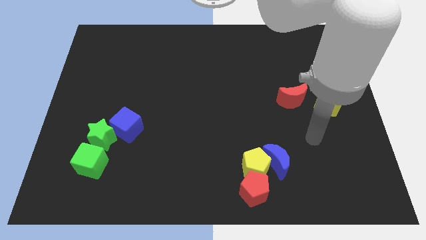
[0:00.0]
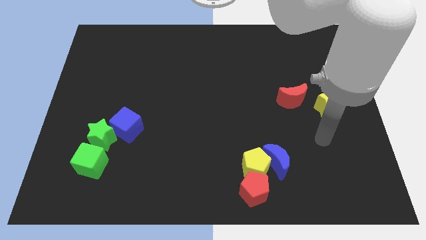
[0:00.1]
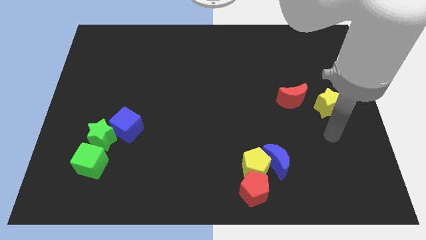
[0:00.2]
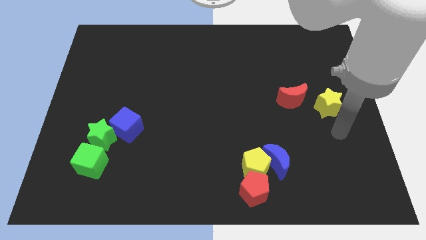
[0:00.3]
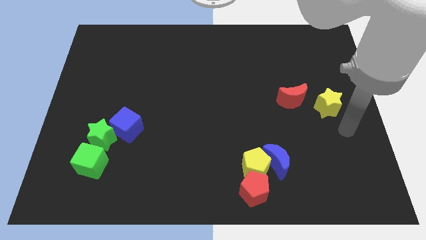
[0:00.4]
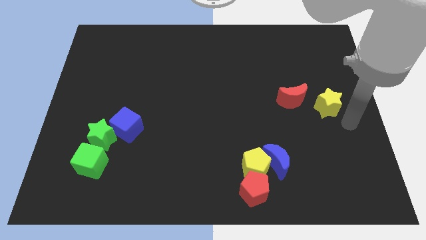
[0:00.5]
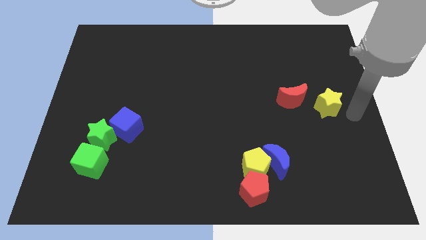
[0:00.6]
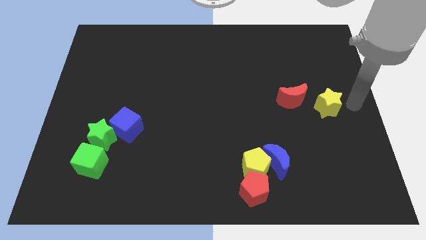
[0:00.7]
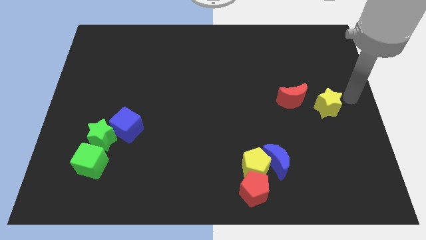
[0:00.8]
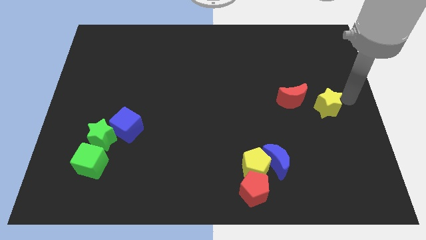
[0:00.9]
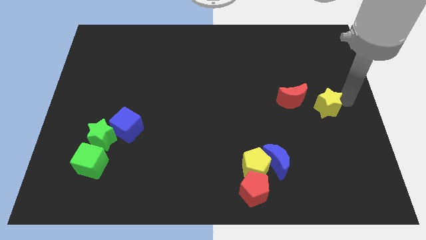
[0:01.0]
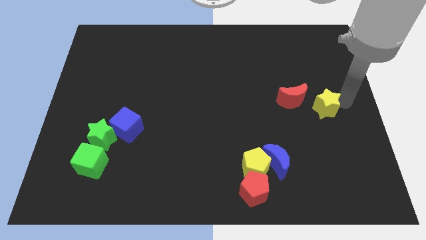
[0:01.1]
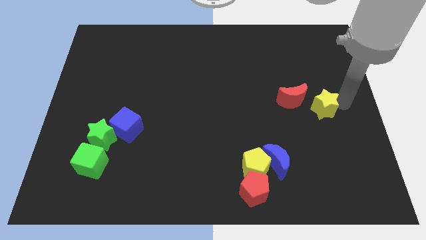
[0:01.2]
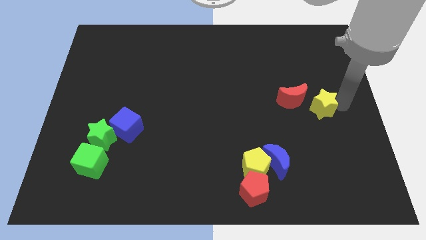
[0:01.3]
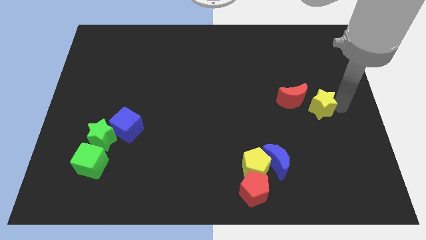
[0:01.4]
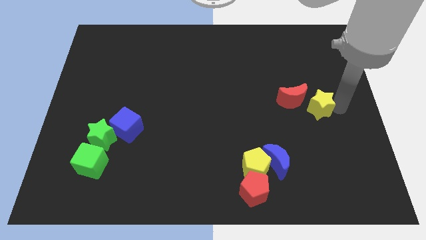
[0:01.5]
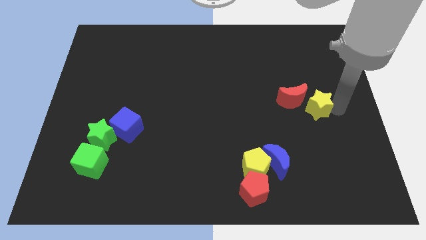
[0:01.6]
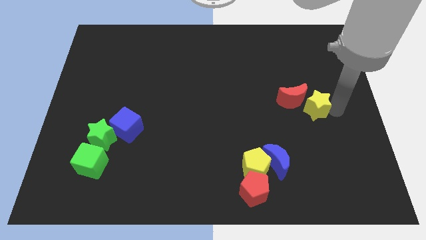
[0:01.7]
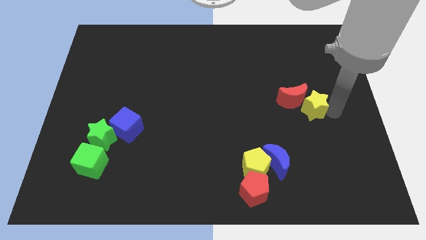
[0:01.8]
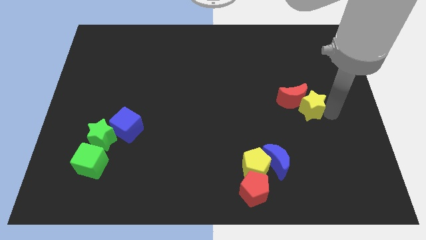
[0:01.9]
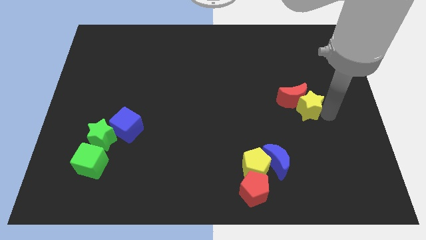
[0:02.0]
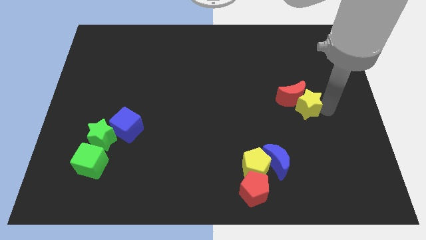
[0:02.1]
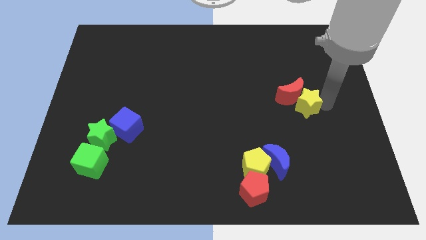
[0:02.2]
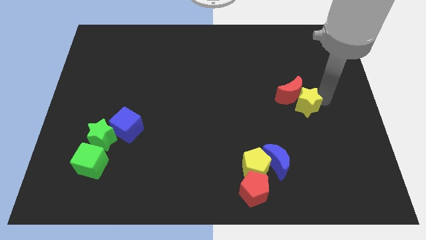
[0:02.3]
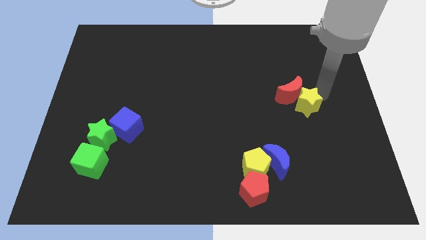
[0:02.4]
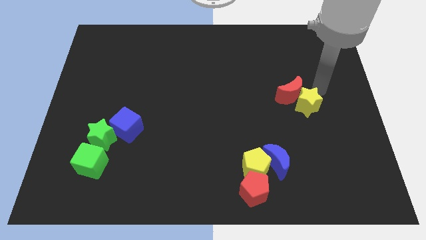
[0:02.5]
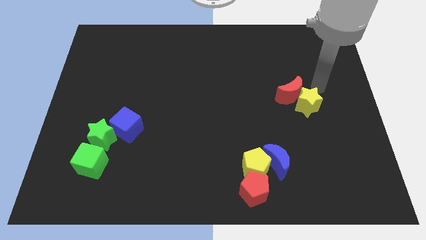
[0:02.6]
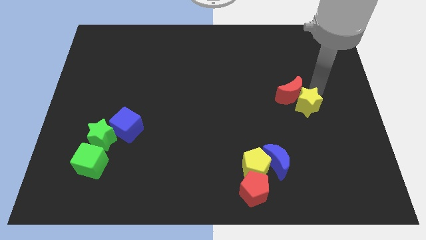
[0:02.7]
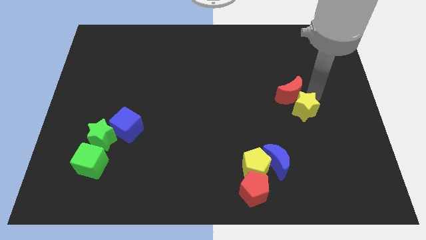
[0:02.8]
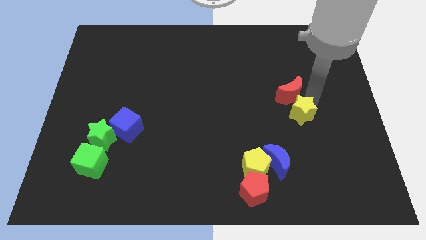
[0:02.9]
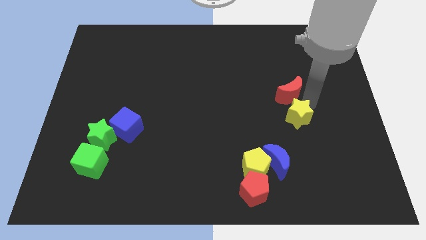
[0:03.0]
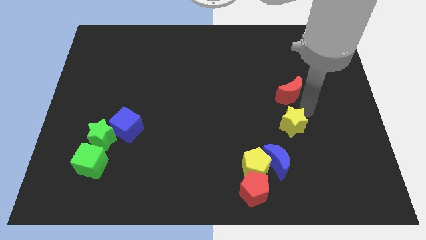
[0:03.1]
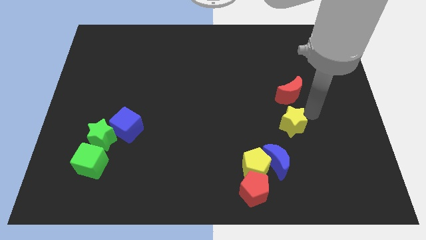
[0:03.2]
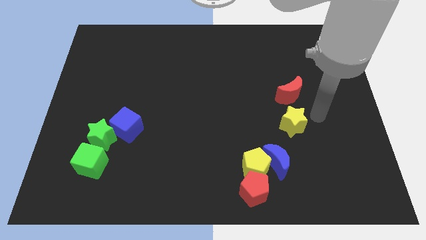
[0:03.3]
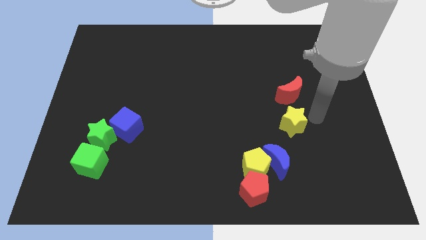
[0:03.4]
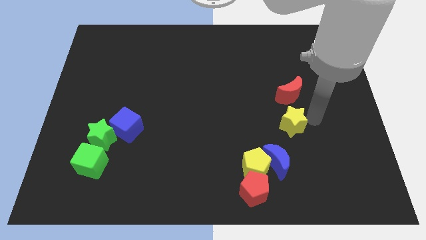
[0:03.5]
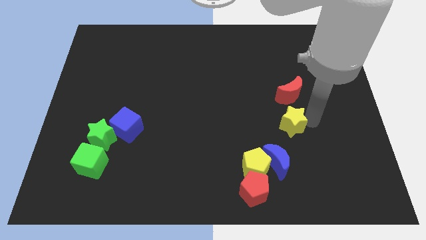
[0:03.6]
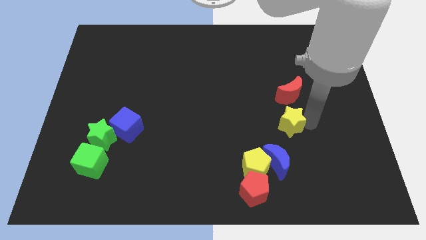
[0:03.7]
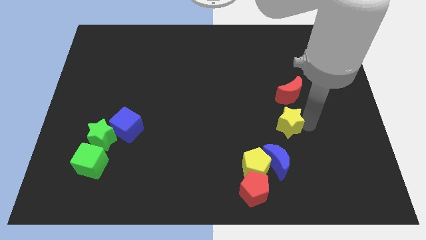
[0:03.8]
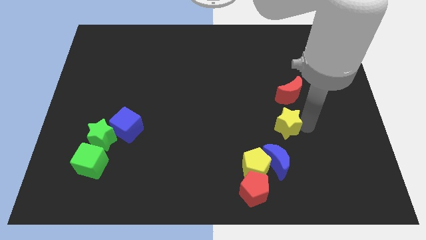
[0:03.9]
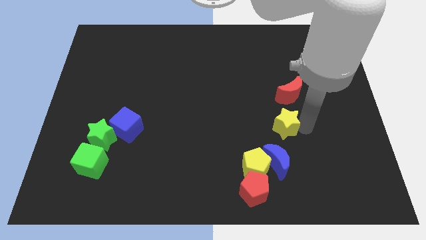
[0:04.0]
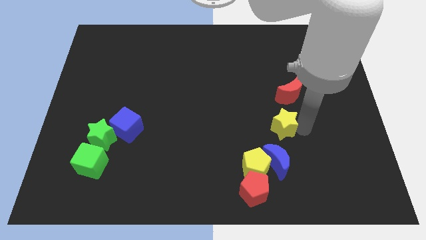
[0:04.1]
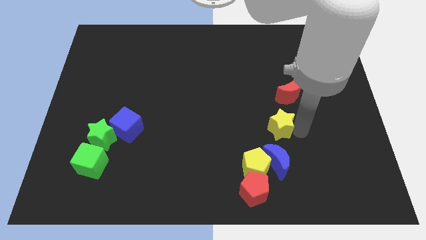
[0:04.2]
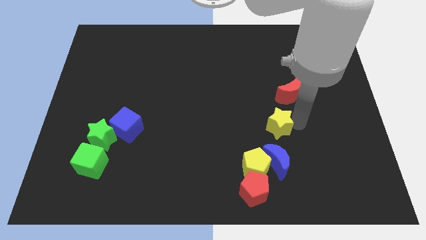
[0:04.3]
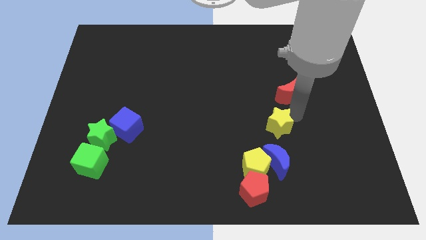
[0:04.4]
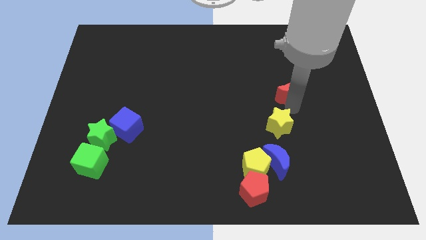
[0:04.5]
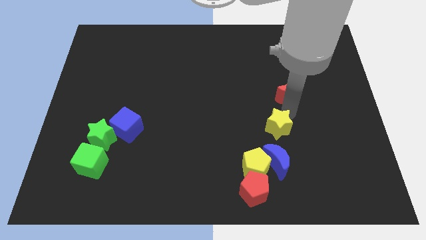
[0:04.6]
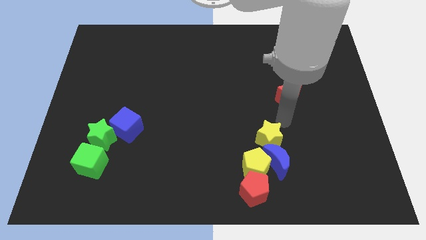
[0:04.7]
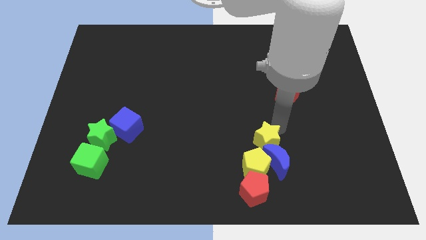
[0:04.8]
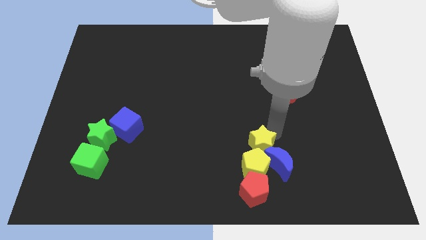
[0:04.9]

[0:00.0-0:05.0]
push the yellow star towards the yellow pentagon

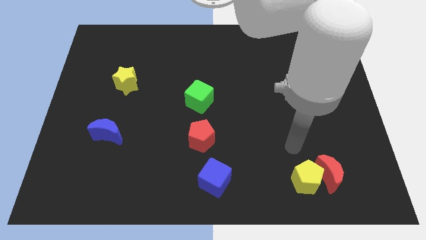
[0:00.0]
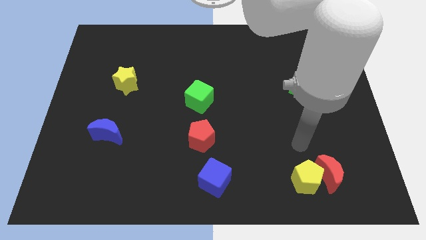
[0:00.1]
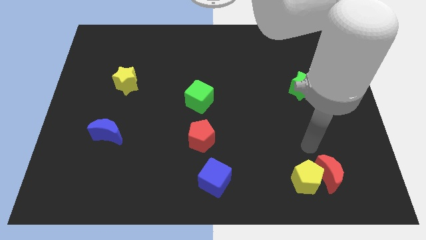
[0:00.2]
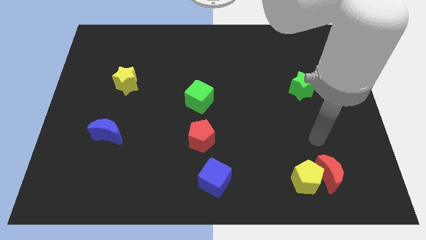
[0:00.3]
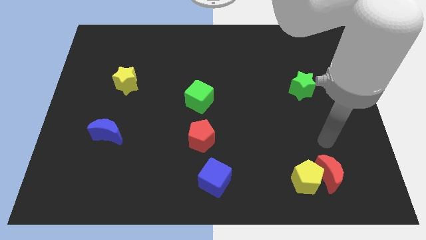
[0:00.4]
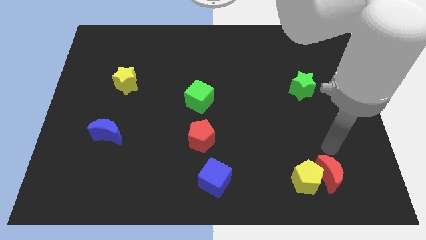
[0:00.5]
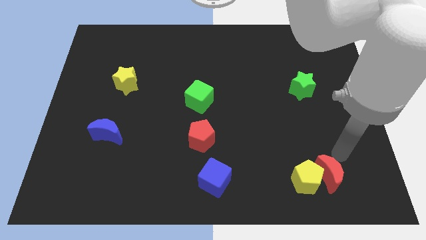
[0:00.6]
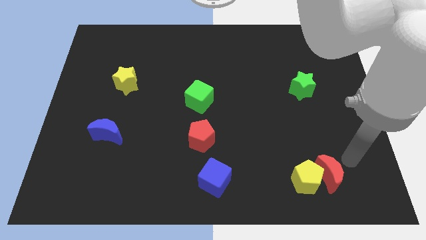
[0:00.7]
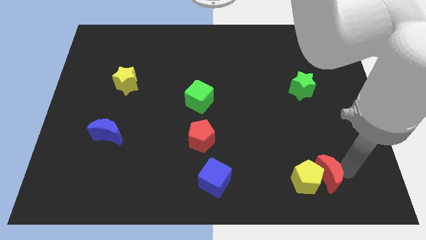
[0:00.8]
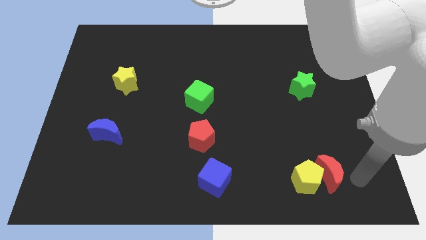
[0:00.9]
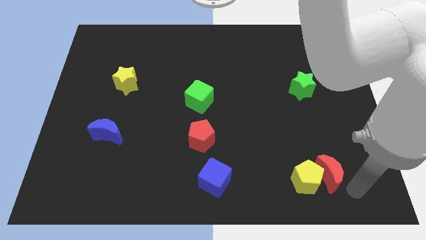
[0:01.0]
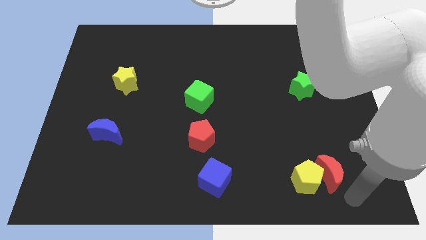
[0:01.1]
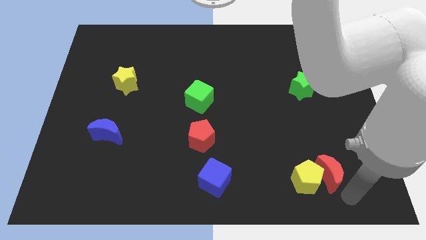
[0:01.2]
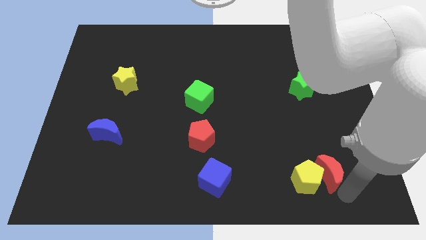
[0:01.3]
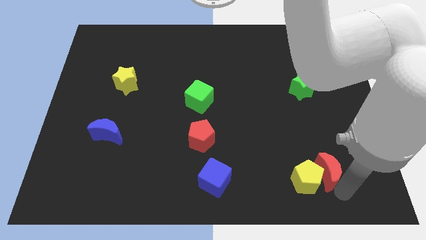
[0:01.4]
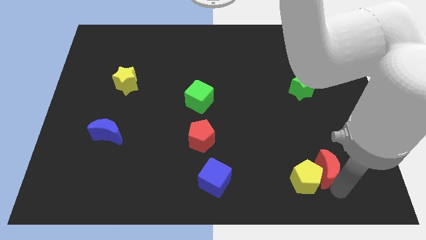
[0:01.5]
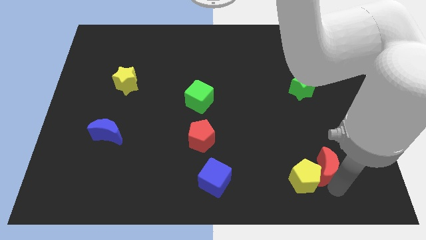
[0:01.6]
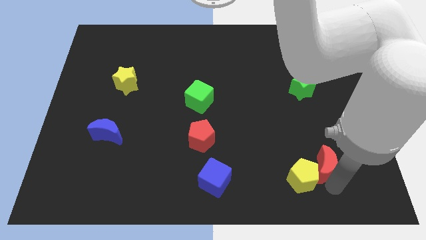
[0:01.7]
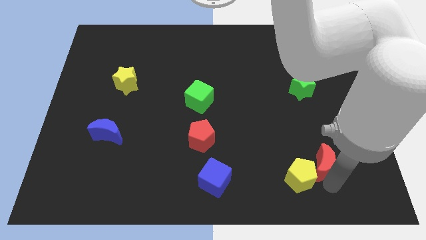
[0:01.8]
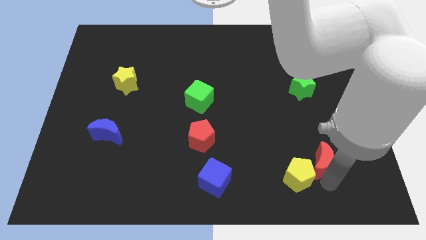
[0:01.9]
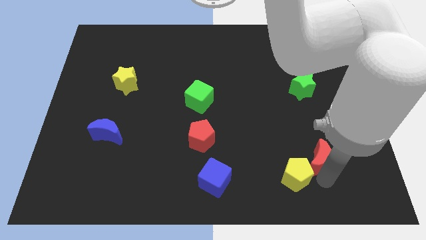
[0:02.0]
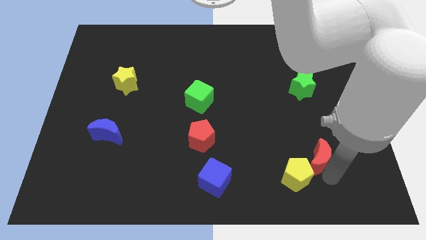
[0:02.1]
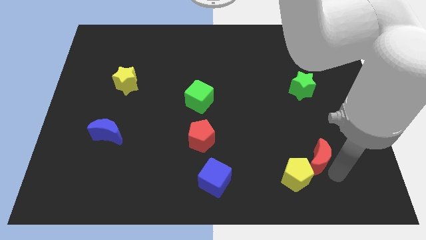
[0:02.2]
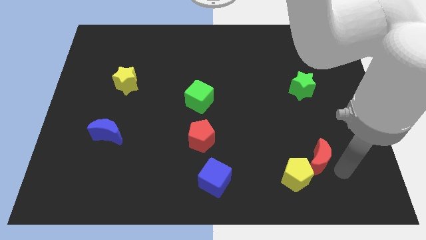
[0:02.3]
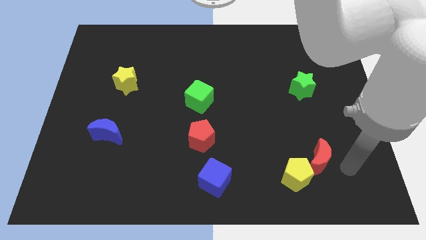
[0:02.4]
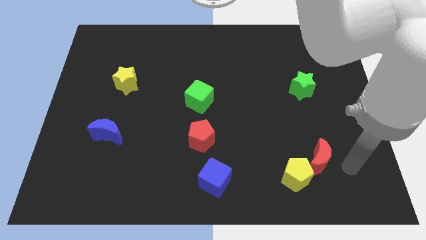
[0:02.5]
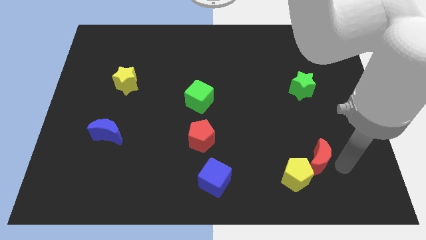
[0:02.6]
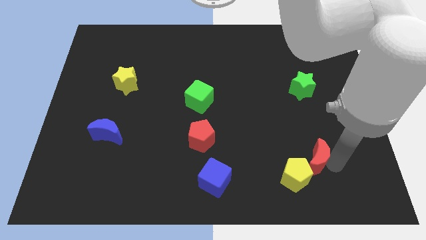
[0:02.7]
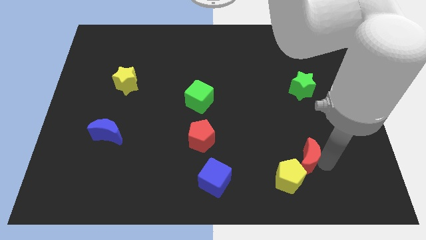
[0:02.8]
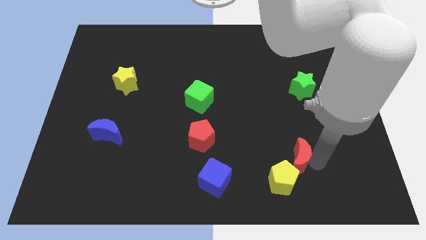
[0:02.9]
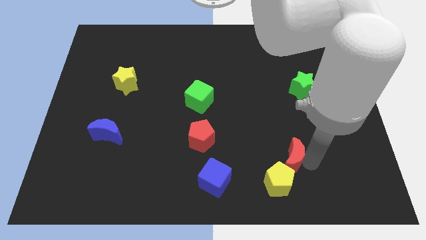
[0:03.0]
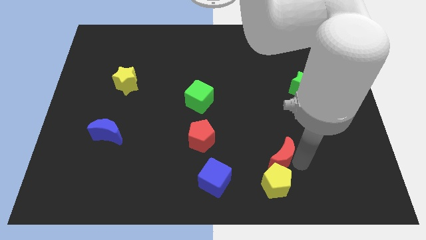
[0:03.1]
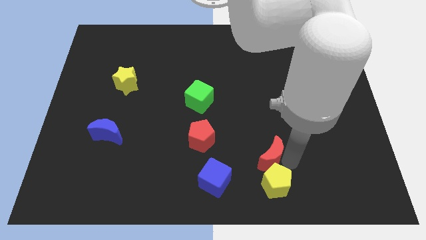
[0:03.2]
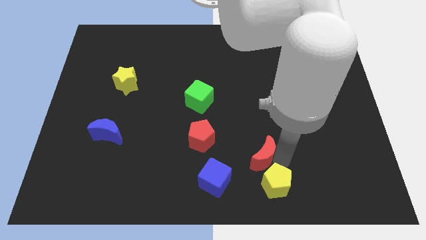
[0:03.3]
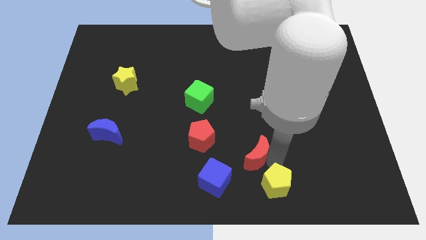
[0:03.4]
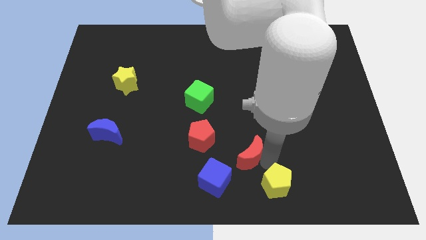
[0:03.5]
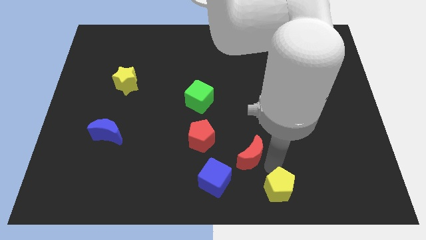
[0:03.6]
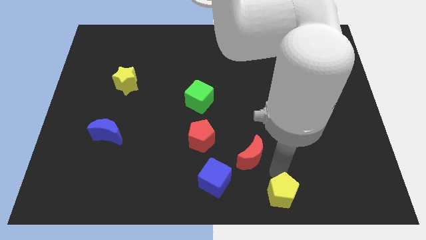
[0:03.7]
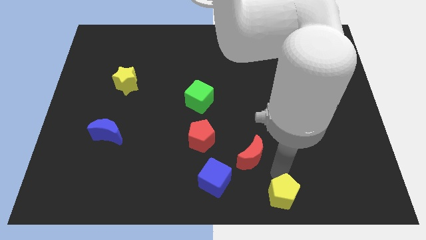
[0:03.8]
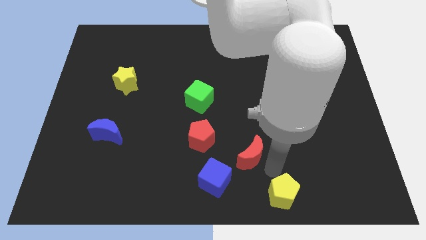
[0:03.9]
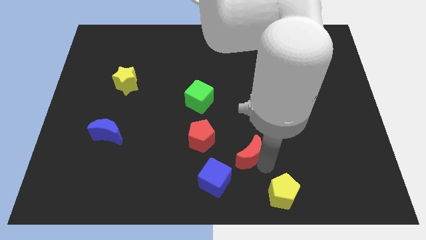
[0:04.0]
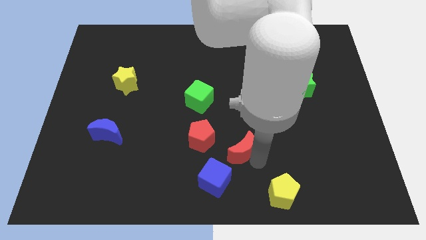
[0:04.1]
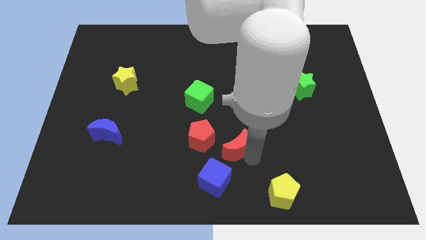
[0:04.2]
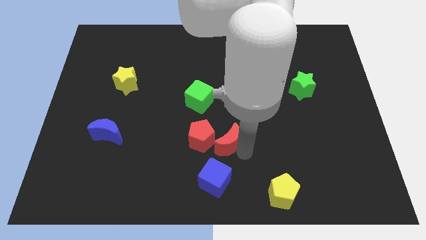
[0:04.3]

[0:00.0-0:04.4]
move the red moon towards the red pentagon
